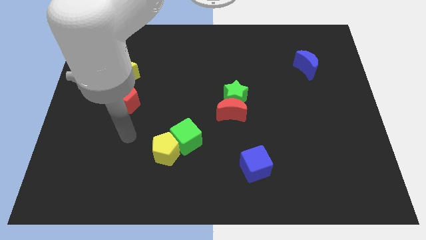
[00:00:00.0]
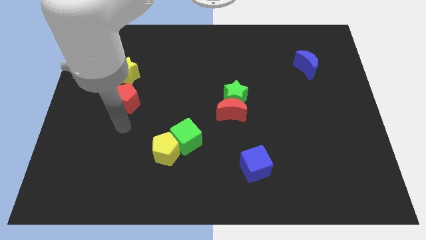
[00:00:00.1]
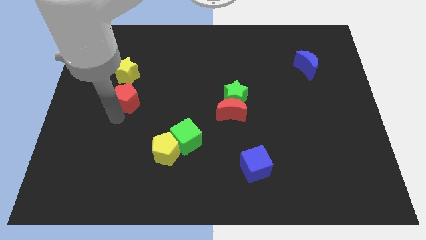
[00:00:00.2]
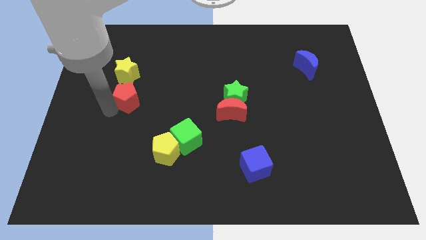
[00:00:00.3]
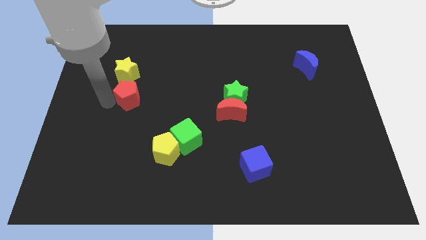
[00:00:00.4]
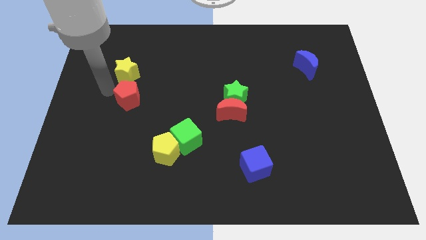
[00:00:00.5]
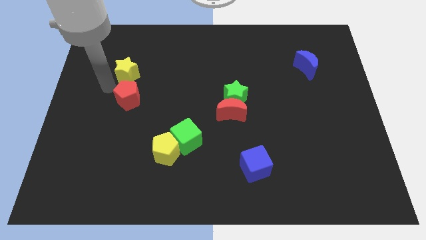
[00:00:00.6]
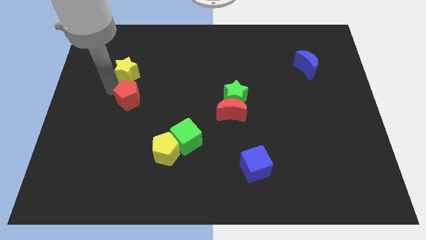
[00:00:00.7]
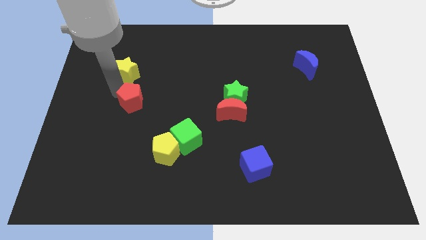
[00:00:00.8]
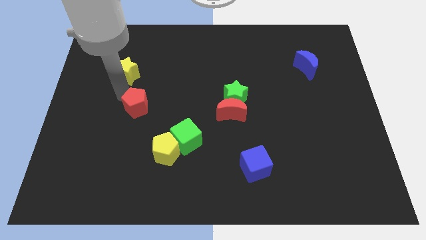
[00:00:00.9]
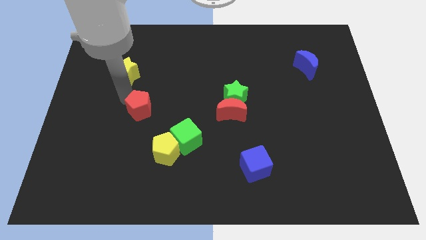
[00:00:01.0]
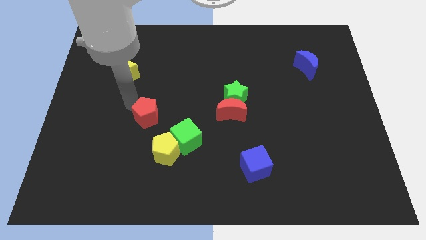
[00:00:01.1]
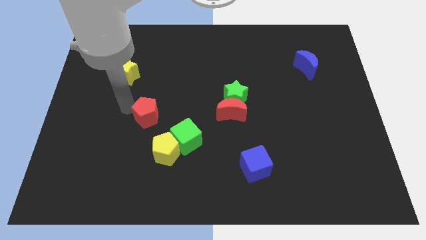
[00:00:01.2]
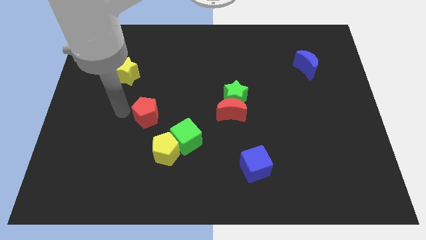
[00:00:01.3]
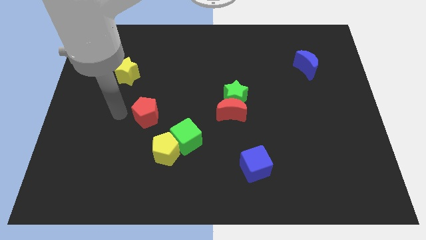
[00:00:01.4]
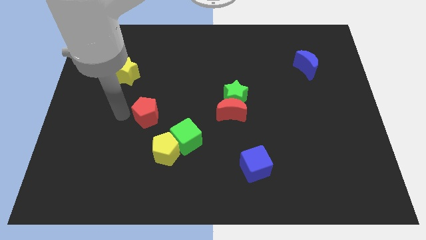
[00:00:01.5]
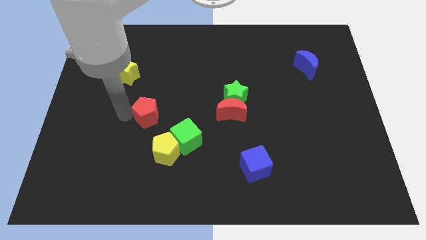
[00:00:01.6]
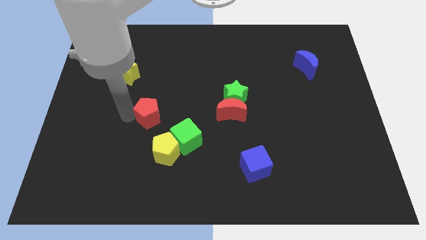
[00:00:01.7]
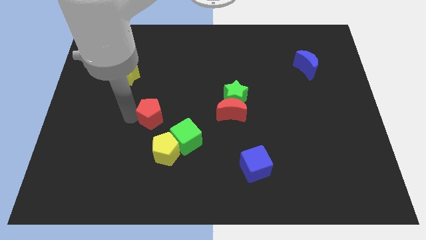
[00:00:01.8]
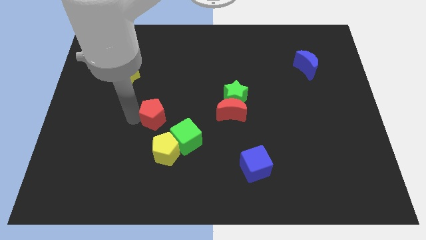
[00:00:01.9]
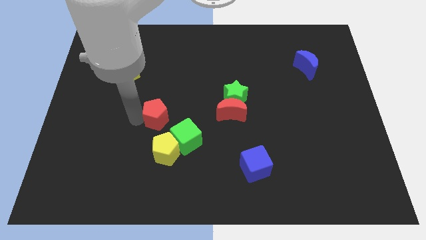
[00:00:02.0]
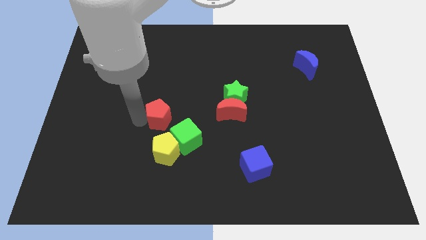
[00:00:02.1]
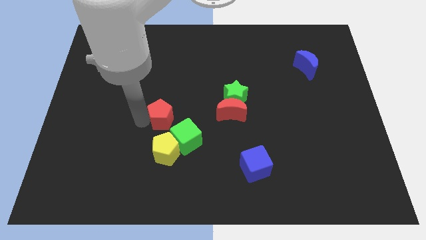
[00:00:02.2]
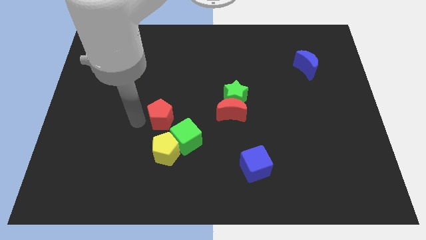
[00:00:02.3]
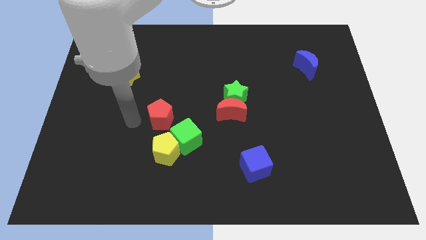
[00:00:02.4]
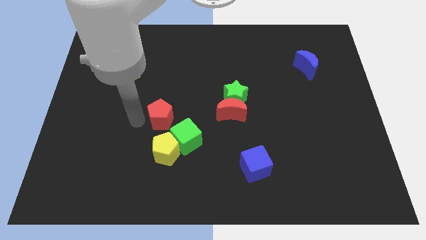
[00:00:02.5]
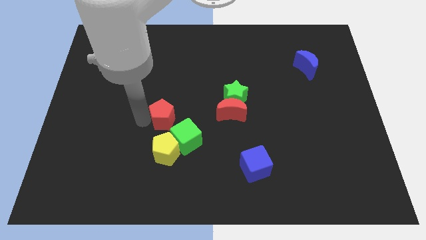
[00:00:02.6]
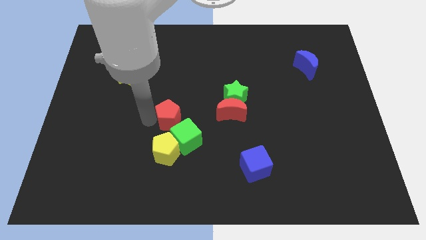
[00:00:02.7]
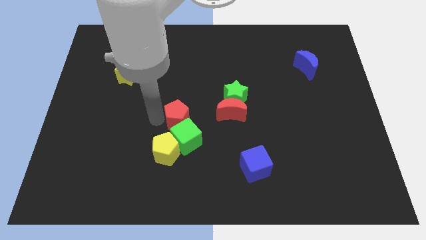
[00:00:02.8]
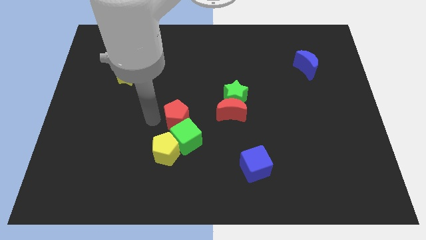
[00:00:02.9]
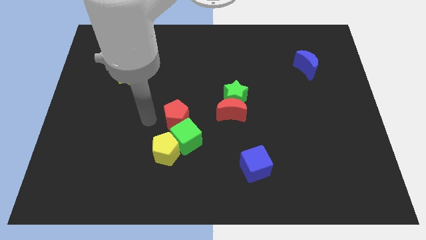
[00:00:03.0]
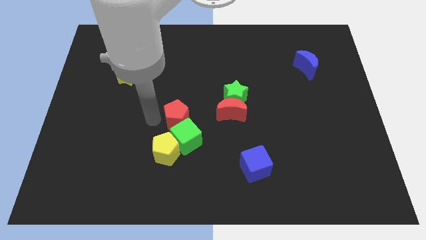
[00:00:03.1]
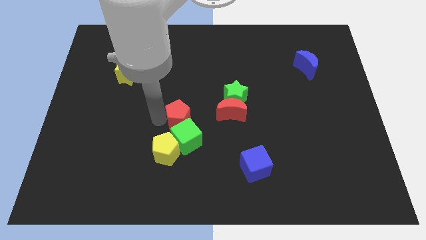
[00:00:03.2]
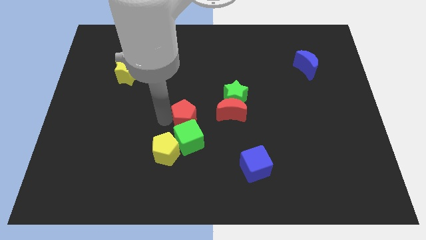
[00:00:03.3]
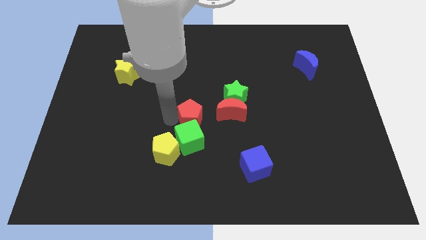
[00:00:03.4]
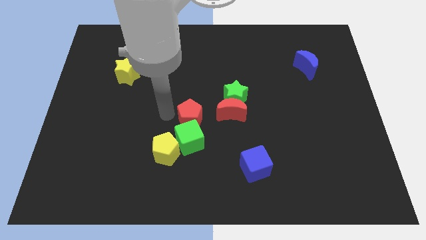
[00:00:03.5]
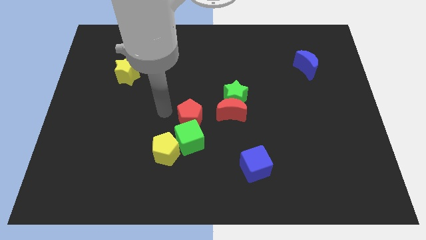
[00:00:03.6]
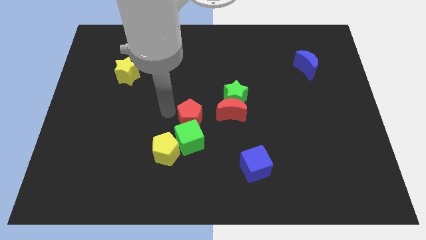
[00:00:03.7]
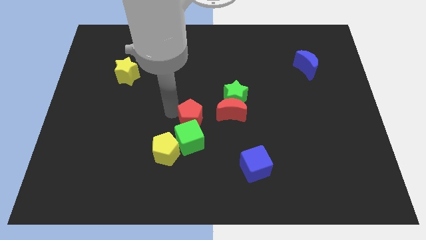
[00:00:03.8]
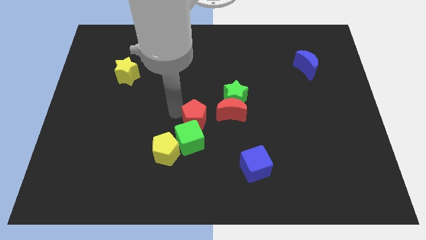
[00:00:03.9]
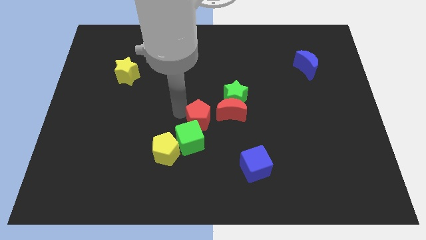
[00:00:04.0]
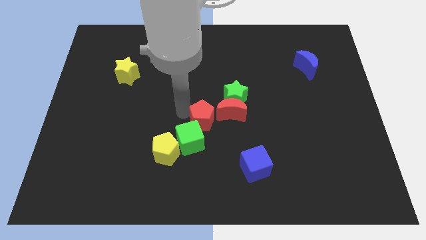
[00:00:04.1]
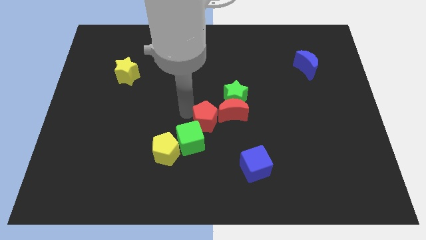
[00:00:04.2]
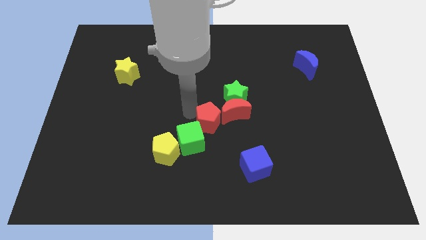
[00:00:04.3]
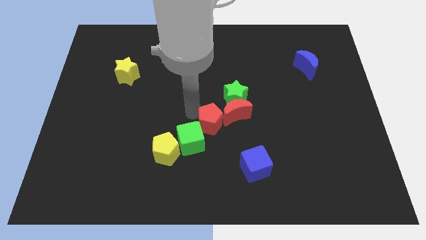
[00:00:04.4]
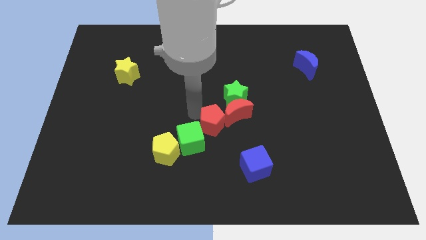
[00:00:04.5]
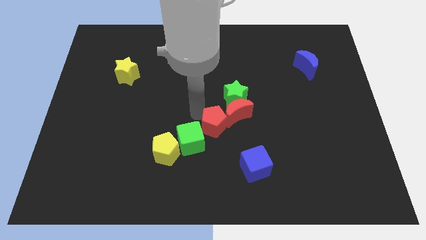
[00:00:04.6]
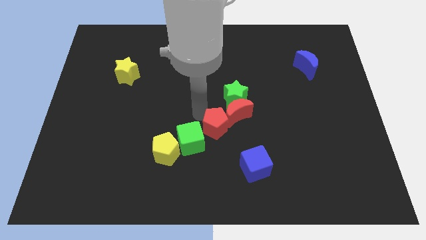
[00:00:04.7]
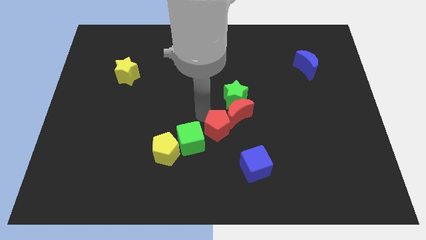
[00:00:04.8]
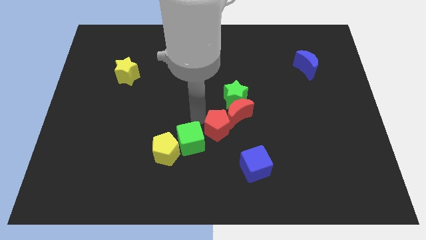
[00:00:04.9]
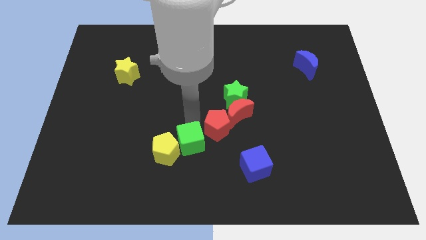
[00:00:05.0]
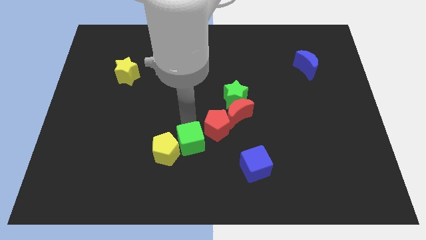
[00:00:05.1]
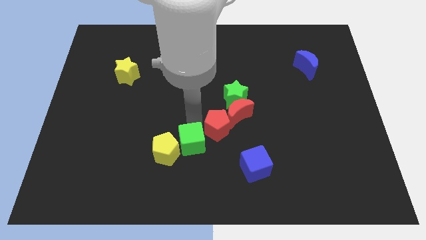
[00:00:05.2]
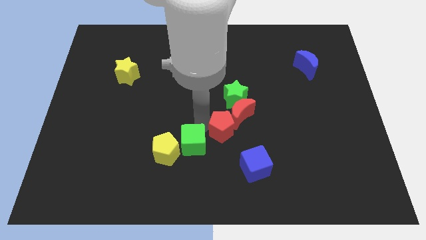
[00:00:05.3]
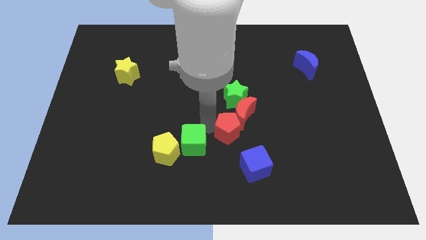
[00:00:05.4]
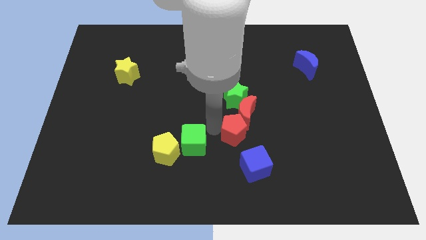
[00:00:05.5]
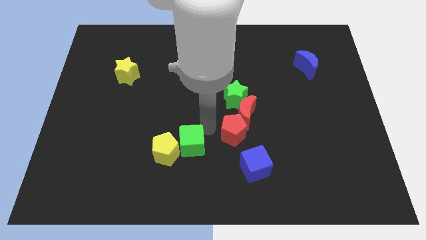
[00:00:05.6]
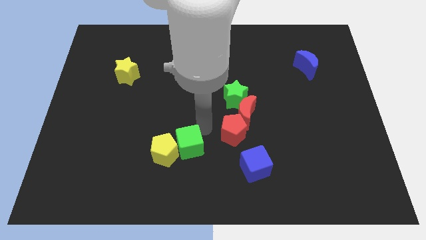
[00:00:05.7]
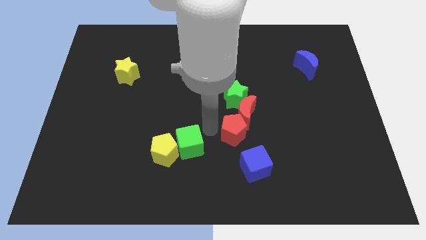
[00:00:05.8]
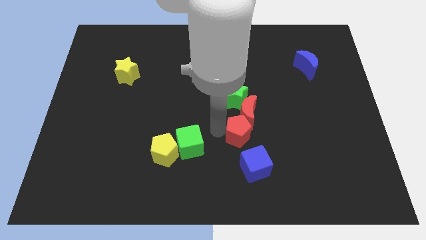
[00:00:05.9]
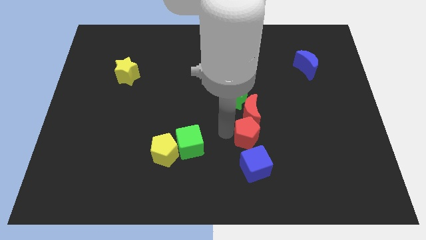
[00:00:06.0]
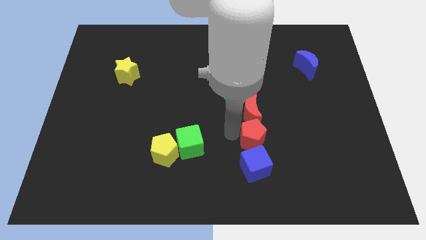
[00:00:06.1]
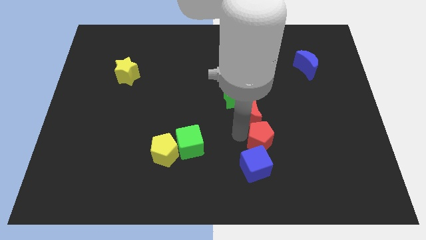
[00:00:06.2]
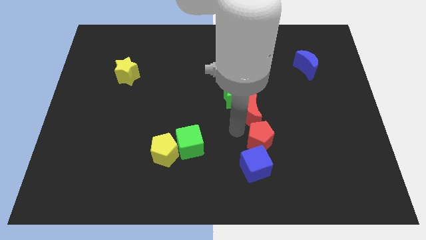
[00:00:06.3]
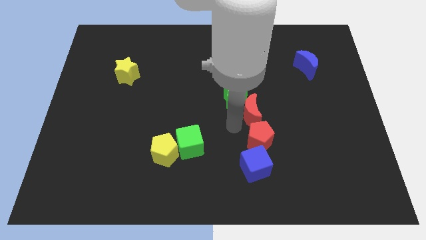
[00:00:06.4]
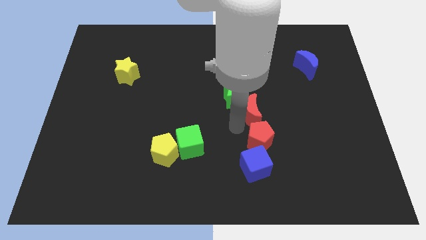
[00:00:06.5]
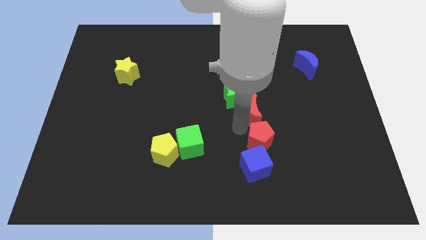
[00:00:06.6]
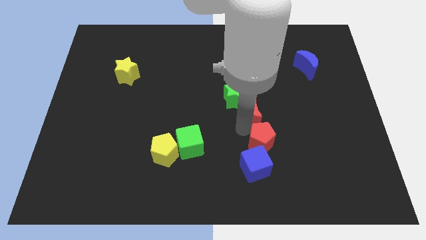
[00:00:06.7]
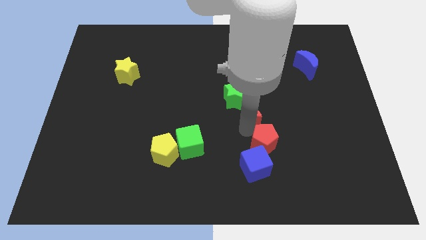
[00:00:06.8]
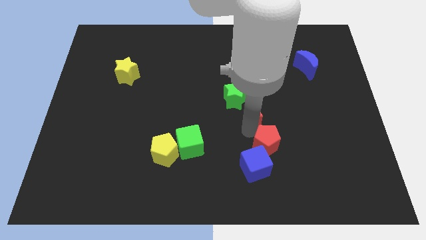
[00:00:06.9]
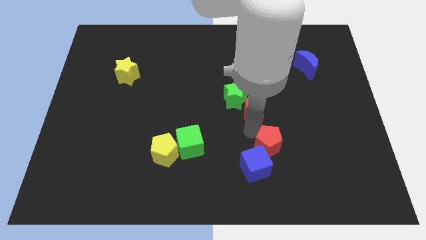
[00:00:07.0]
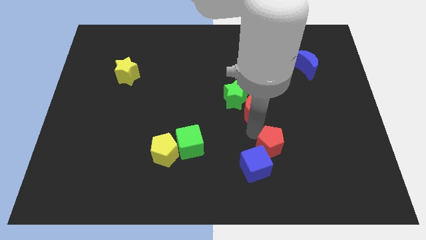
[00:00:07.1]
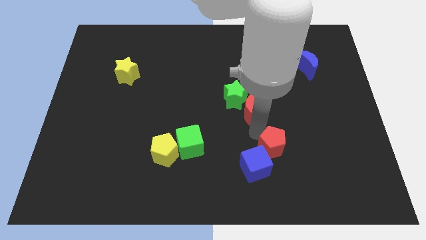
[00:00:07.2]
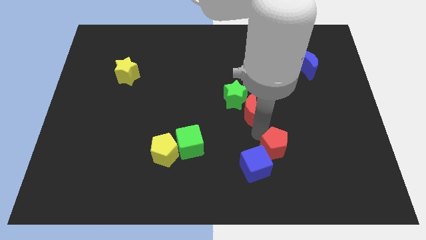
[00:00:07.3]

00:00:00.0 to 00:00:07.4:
push the red pentagon right of the blue cube
